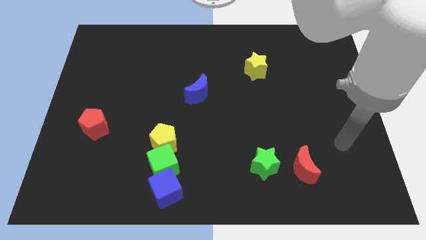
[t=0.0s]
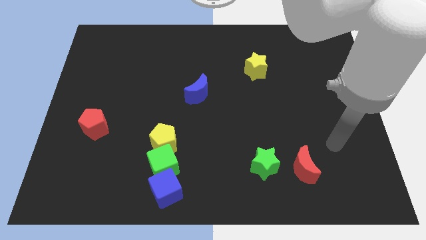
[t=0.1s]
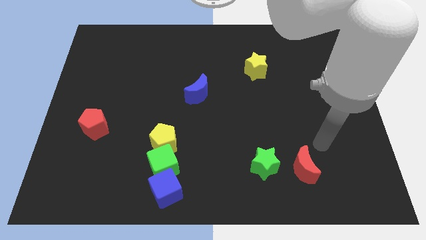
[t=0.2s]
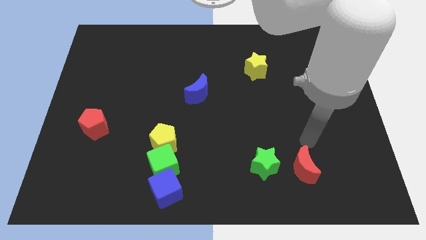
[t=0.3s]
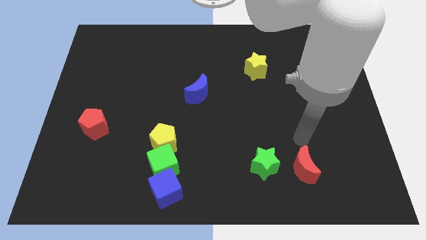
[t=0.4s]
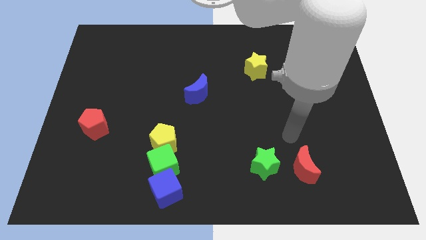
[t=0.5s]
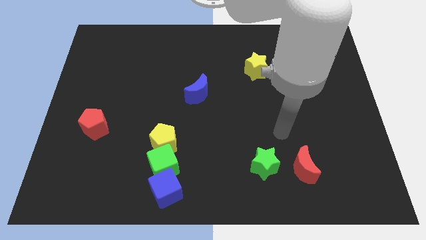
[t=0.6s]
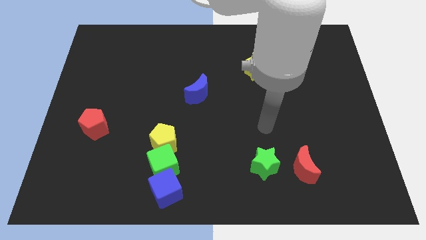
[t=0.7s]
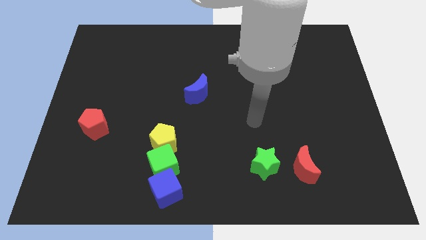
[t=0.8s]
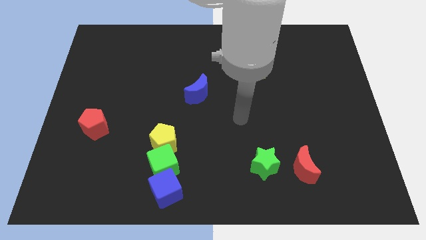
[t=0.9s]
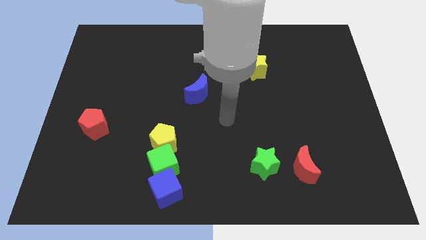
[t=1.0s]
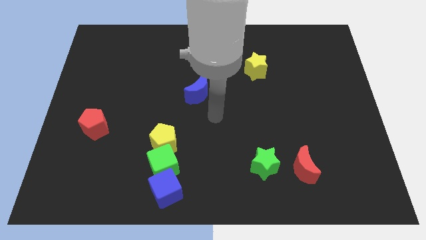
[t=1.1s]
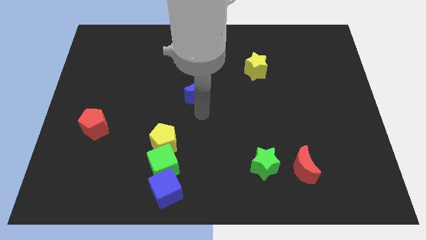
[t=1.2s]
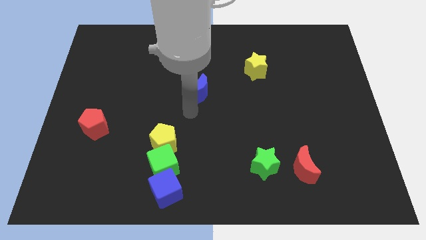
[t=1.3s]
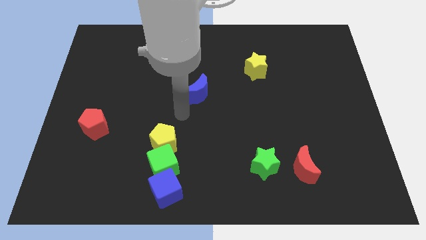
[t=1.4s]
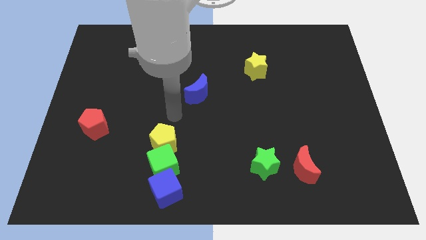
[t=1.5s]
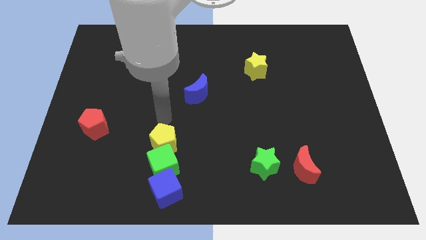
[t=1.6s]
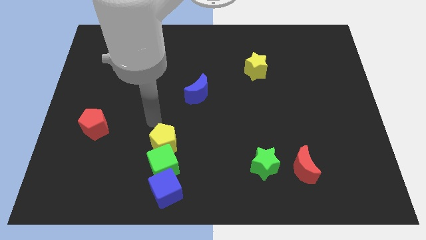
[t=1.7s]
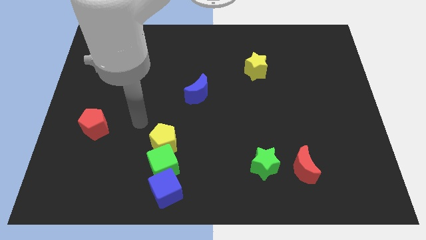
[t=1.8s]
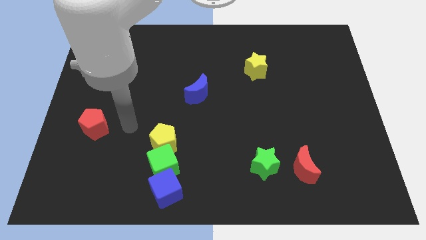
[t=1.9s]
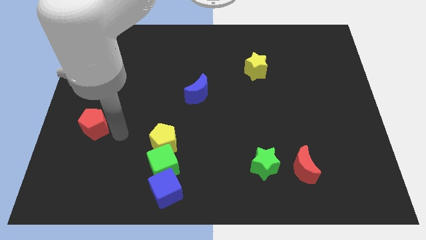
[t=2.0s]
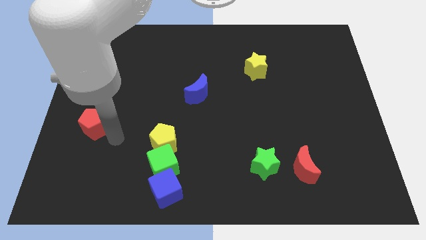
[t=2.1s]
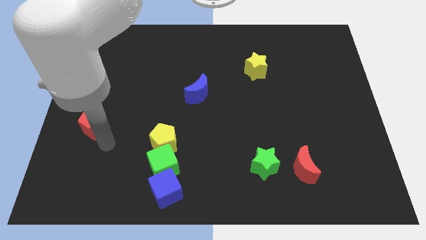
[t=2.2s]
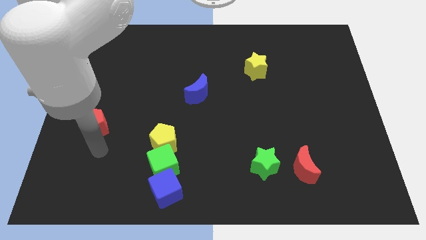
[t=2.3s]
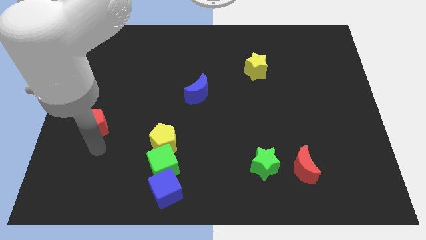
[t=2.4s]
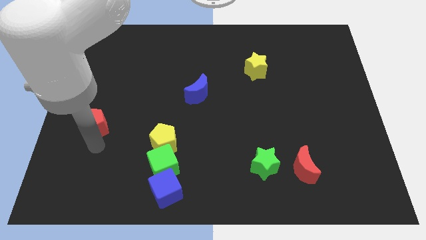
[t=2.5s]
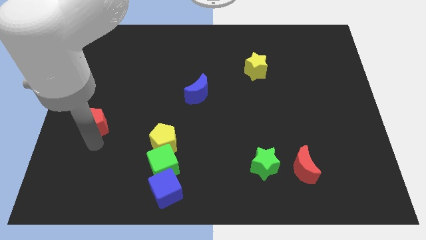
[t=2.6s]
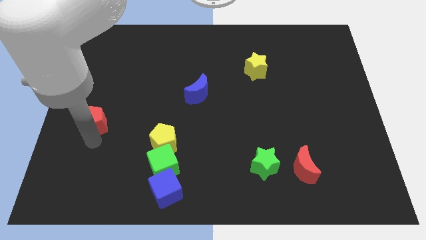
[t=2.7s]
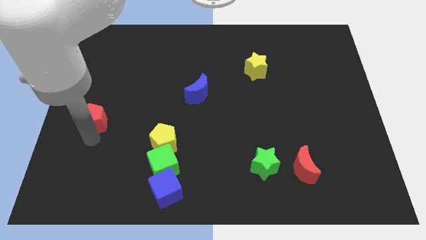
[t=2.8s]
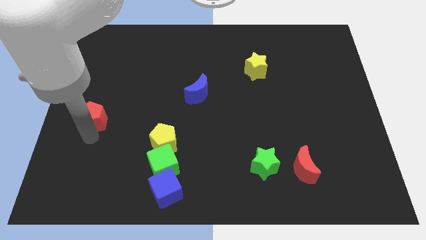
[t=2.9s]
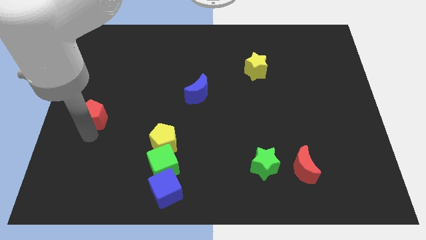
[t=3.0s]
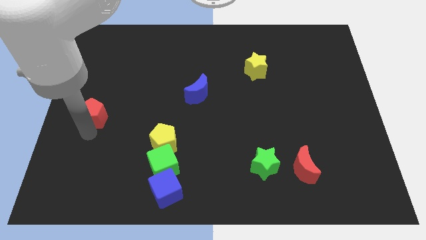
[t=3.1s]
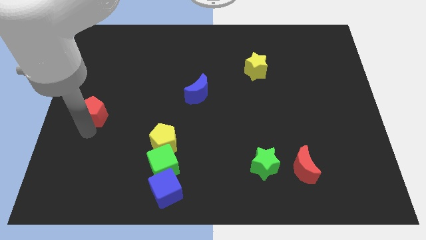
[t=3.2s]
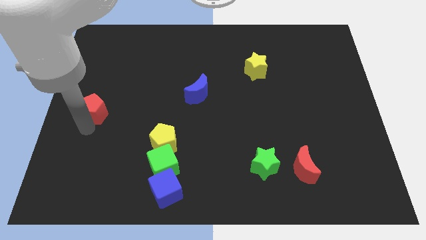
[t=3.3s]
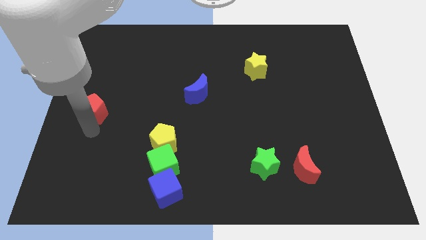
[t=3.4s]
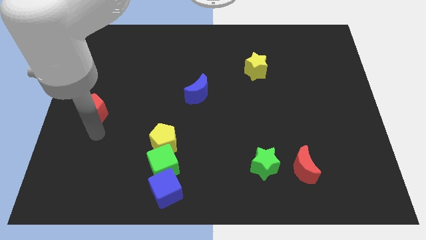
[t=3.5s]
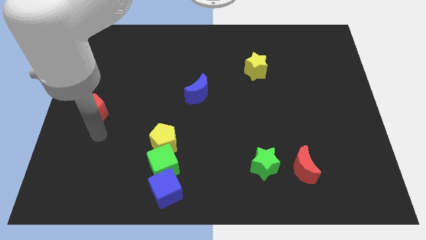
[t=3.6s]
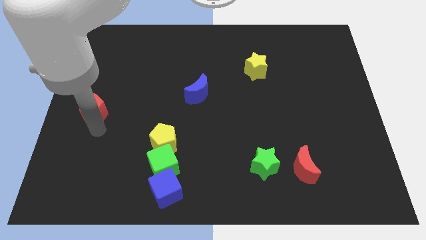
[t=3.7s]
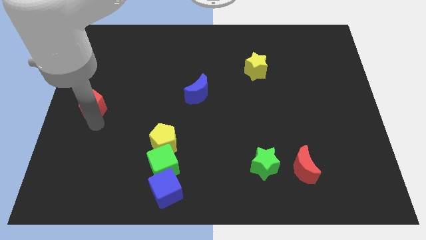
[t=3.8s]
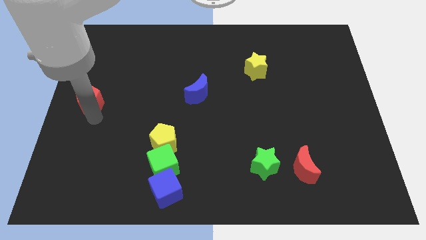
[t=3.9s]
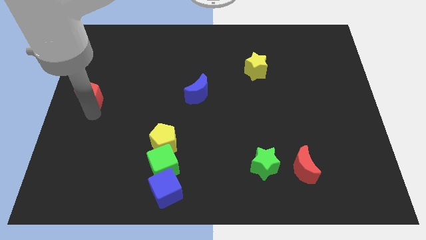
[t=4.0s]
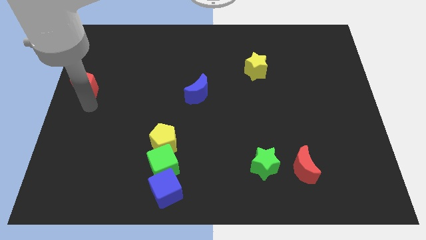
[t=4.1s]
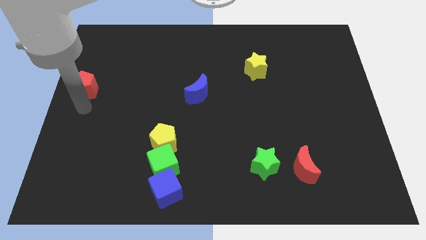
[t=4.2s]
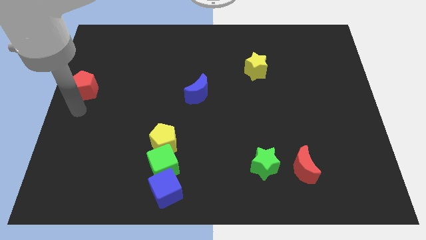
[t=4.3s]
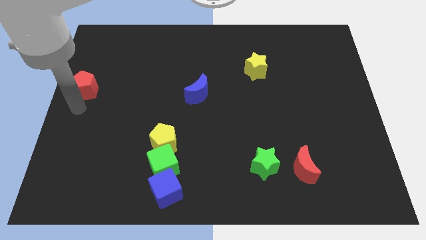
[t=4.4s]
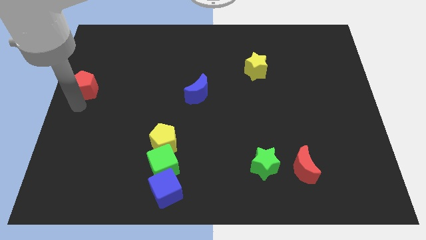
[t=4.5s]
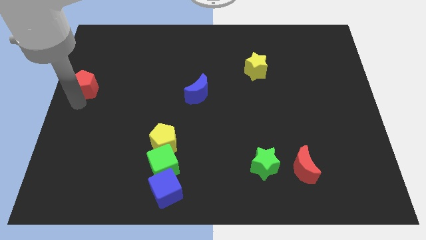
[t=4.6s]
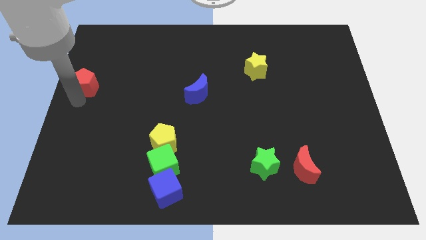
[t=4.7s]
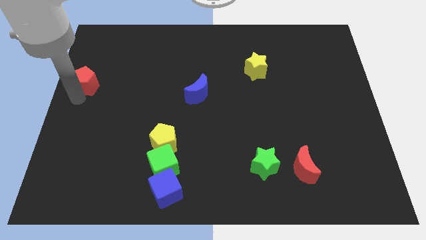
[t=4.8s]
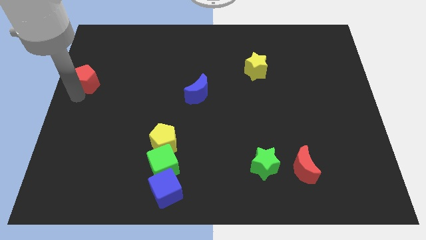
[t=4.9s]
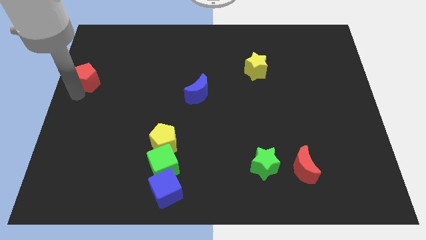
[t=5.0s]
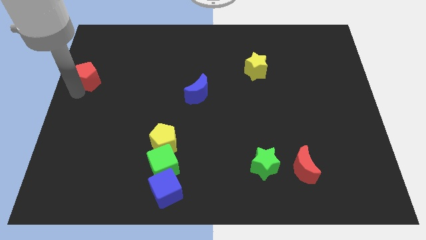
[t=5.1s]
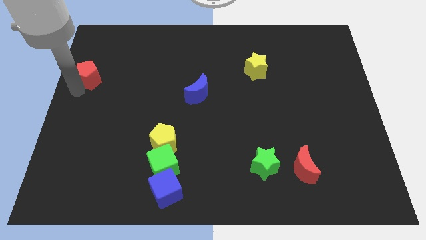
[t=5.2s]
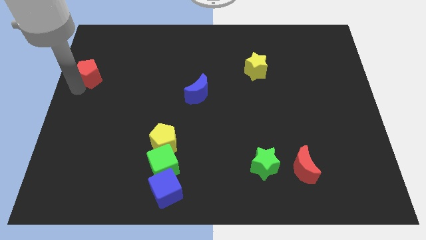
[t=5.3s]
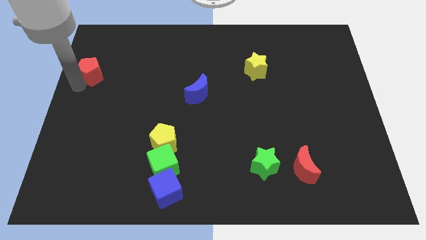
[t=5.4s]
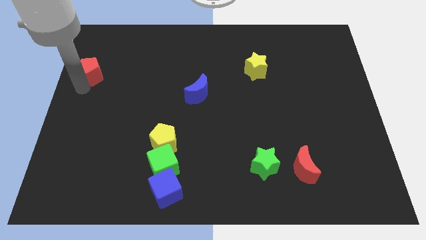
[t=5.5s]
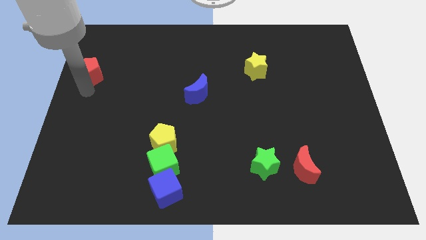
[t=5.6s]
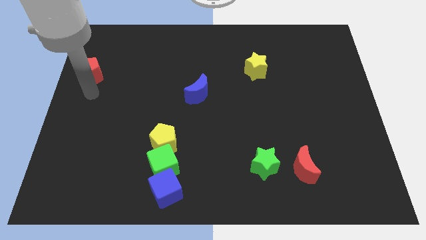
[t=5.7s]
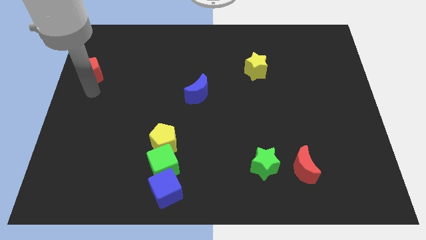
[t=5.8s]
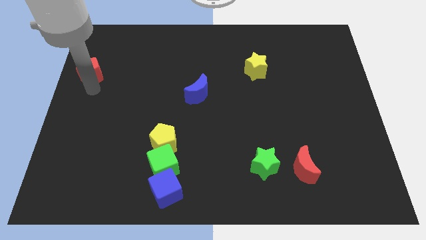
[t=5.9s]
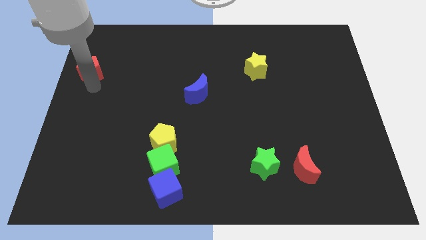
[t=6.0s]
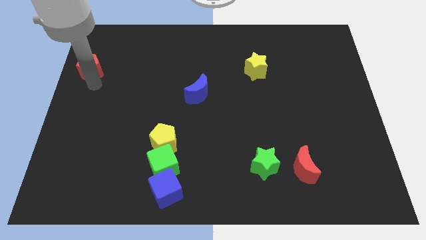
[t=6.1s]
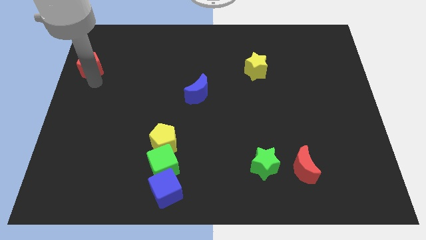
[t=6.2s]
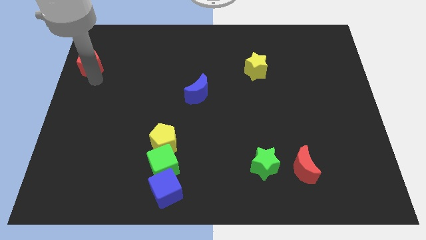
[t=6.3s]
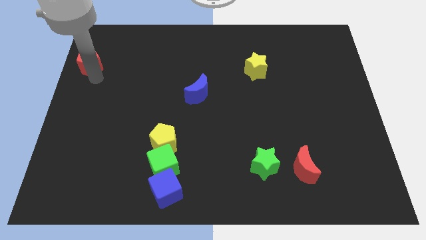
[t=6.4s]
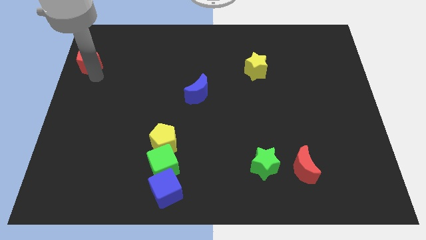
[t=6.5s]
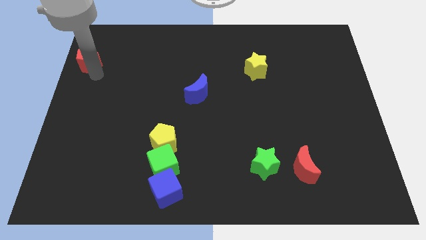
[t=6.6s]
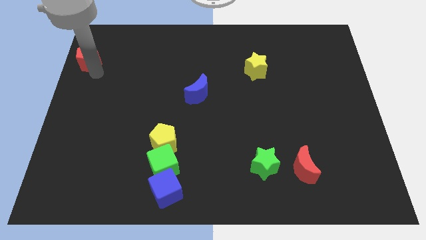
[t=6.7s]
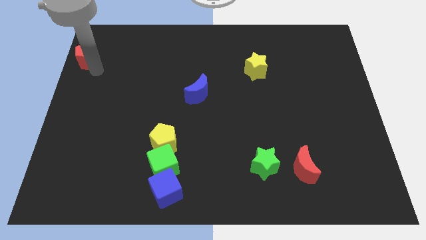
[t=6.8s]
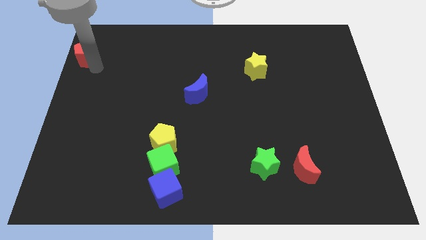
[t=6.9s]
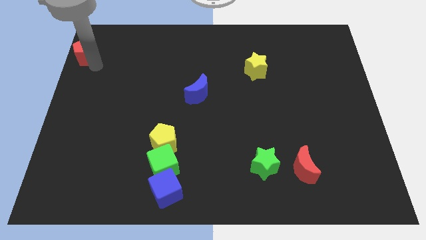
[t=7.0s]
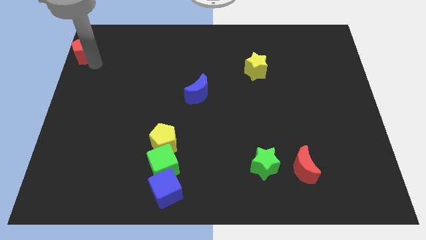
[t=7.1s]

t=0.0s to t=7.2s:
slide the red pentagon to the upper left corner
